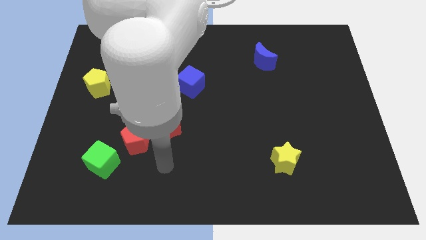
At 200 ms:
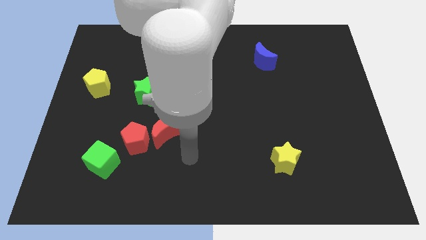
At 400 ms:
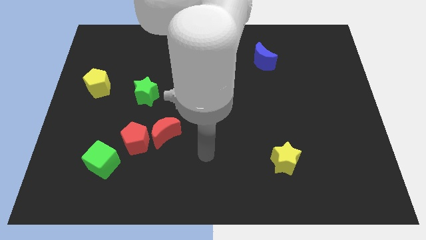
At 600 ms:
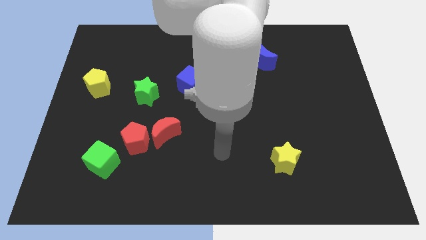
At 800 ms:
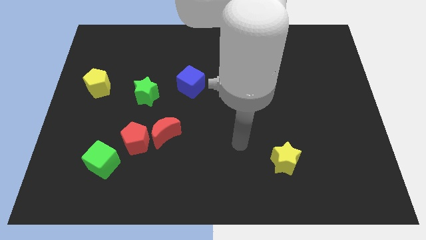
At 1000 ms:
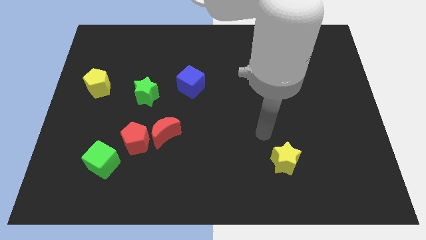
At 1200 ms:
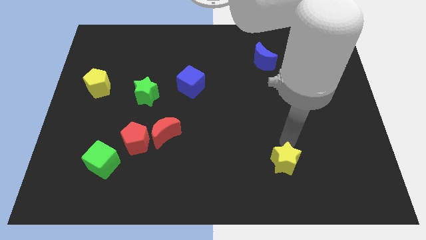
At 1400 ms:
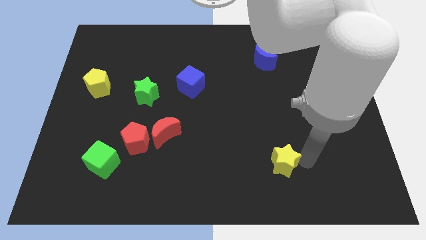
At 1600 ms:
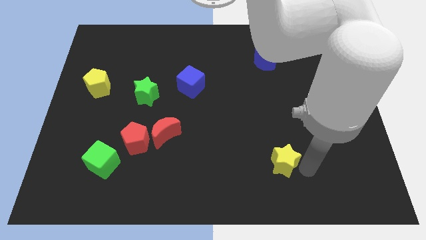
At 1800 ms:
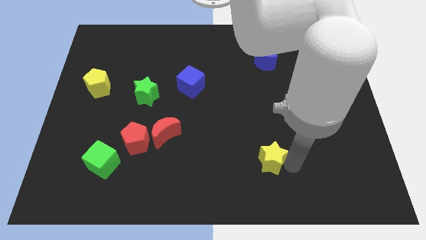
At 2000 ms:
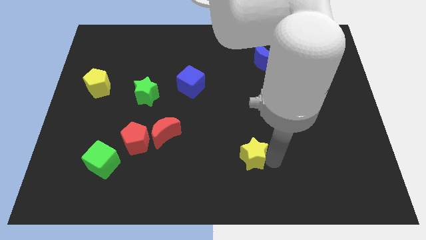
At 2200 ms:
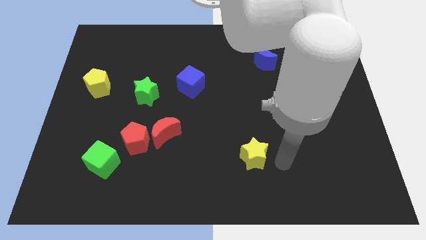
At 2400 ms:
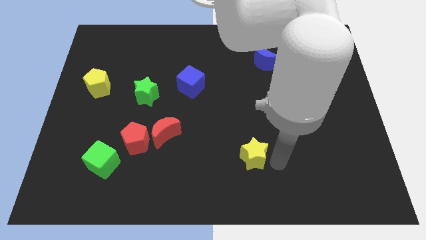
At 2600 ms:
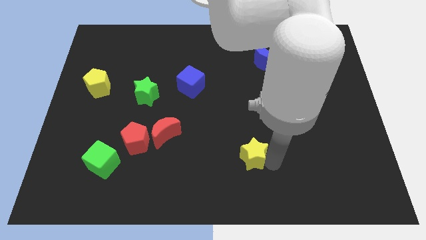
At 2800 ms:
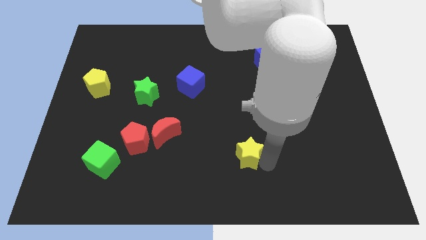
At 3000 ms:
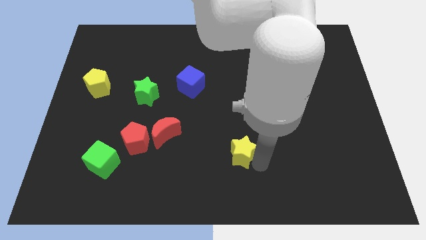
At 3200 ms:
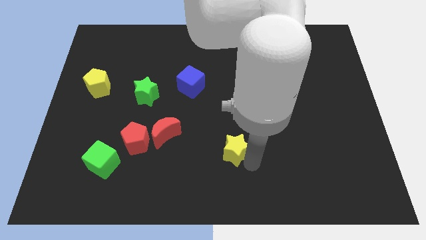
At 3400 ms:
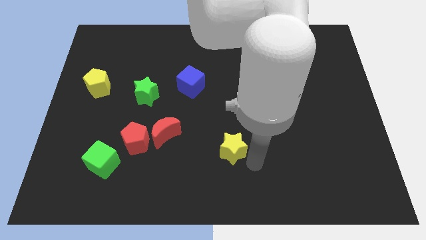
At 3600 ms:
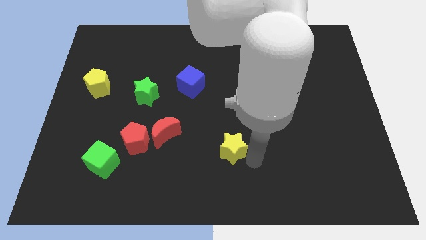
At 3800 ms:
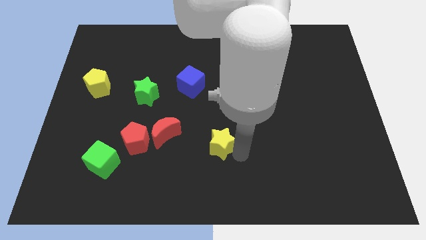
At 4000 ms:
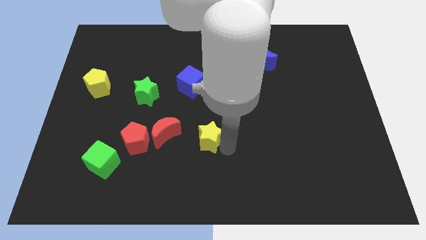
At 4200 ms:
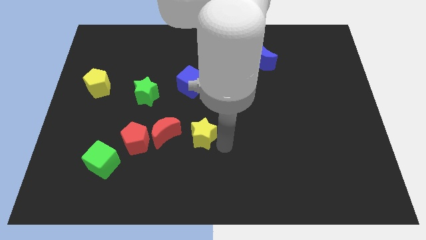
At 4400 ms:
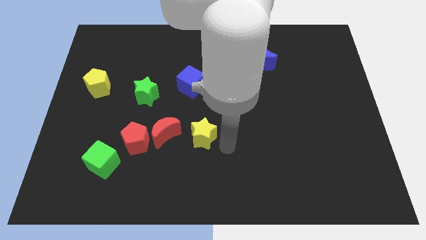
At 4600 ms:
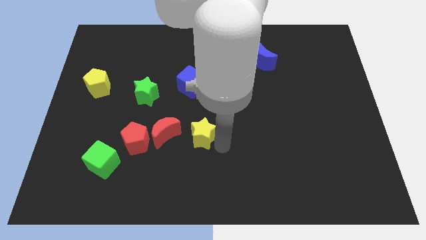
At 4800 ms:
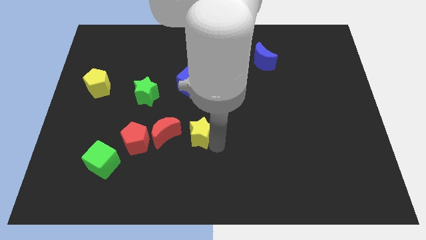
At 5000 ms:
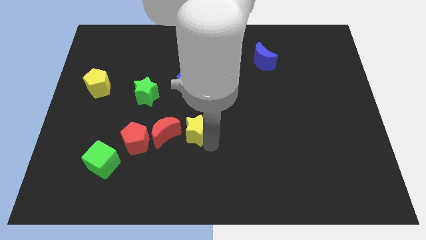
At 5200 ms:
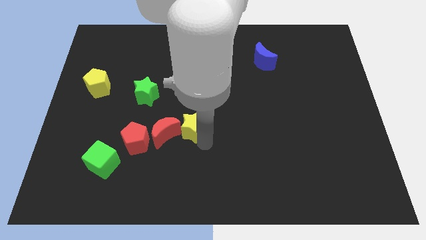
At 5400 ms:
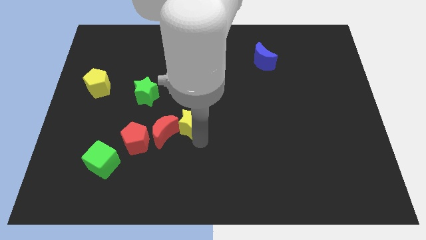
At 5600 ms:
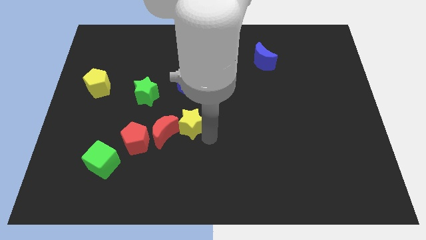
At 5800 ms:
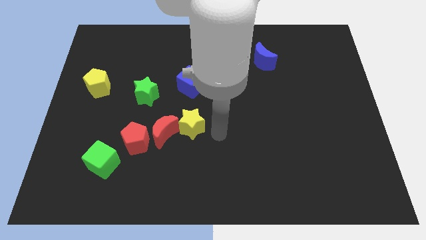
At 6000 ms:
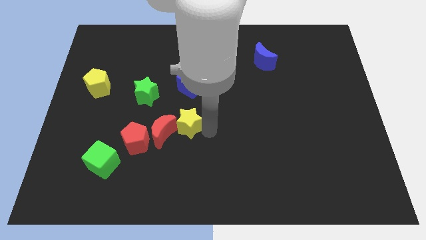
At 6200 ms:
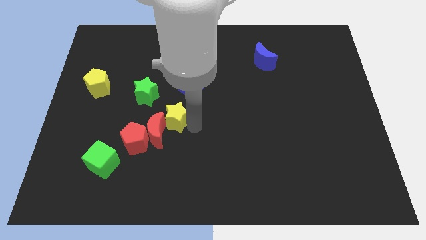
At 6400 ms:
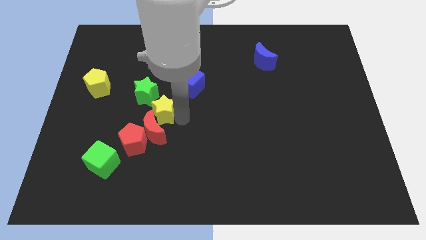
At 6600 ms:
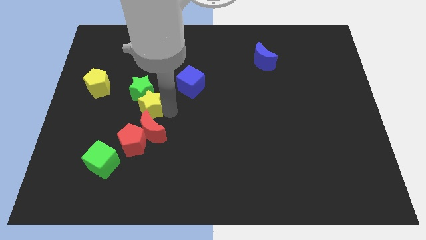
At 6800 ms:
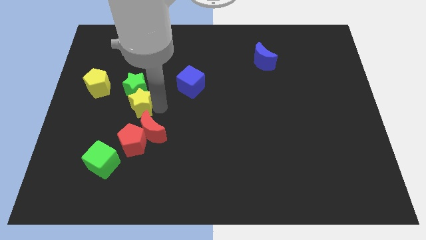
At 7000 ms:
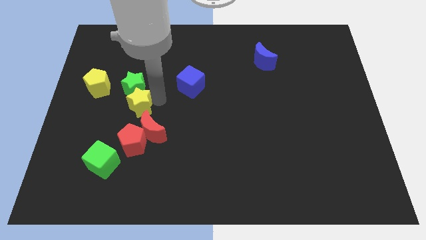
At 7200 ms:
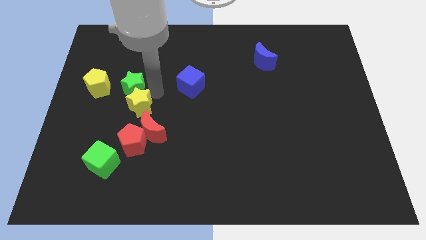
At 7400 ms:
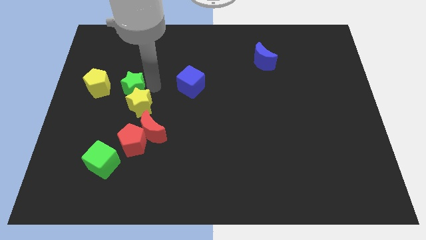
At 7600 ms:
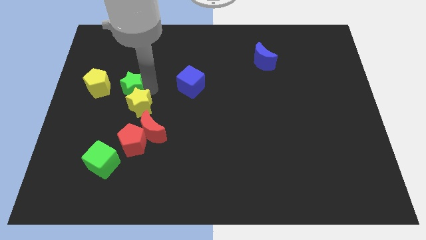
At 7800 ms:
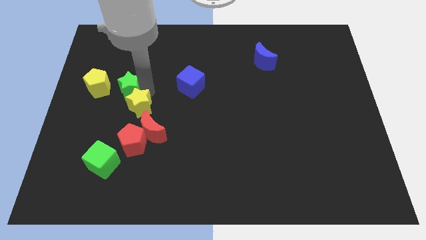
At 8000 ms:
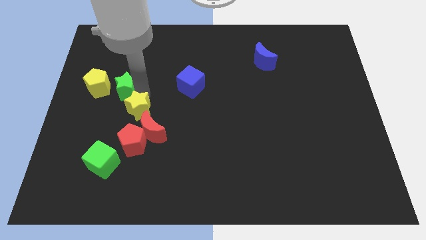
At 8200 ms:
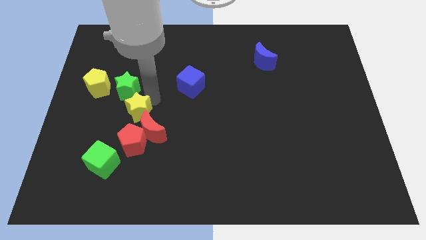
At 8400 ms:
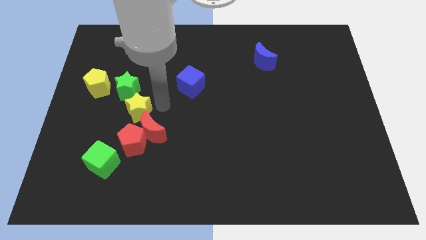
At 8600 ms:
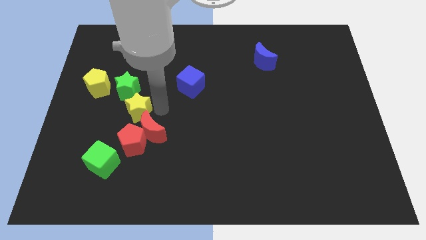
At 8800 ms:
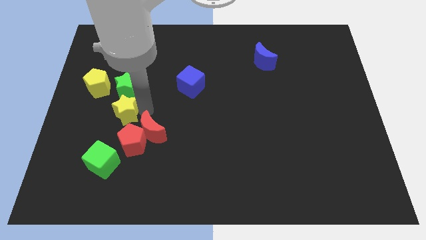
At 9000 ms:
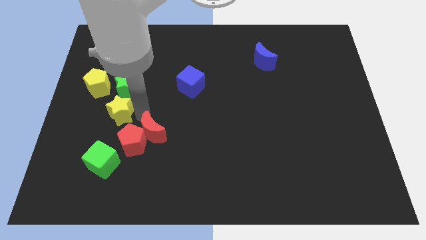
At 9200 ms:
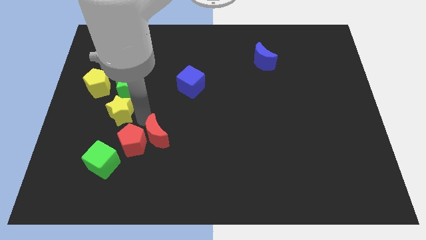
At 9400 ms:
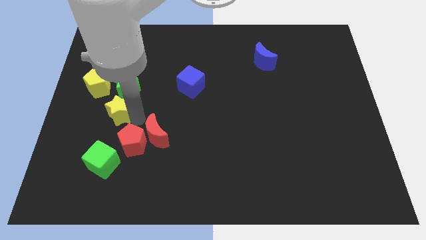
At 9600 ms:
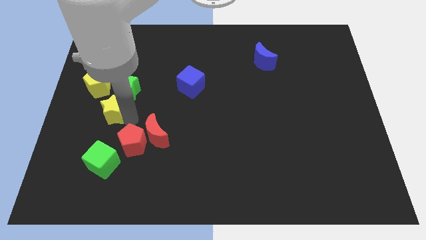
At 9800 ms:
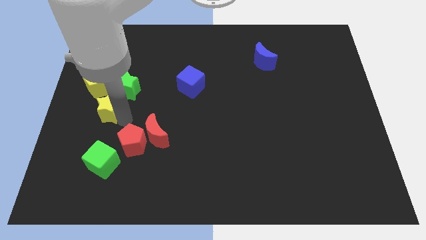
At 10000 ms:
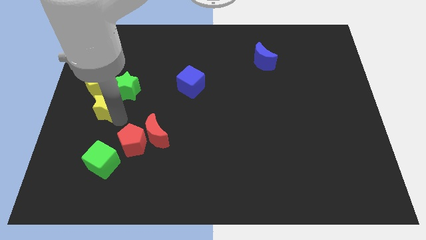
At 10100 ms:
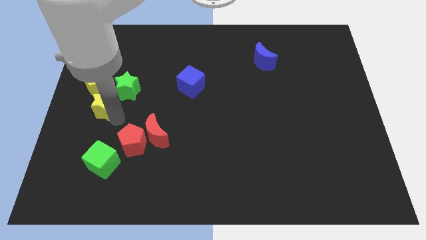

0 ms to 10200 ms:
push the yellow star to the left side of the board

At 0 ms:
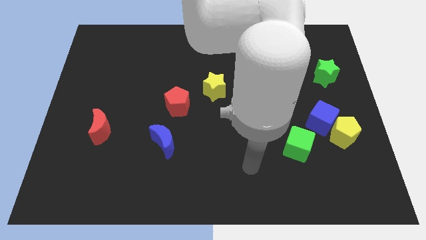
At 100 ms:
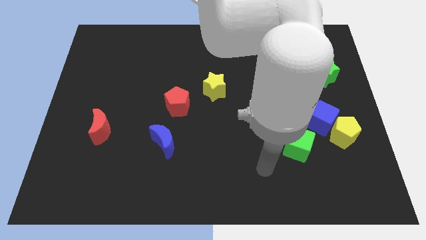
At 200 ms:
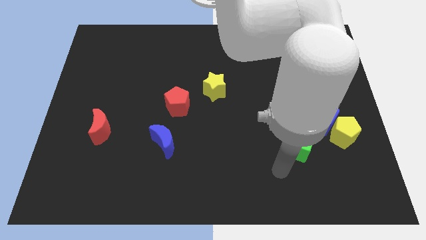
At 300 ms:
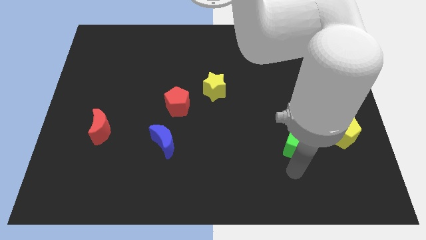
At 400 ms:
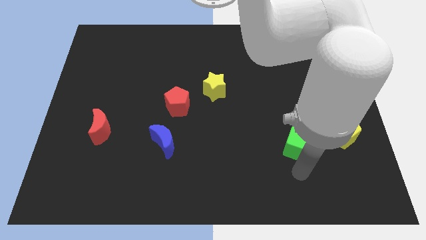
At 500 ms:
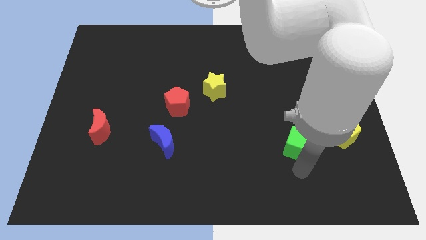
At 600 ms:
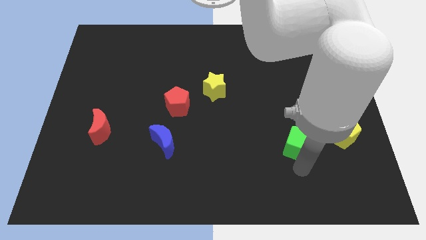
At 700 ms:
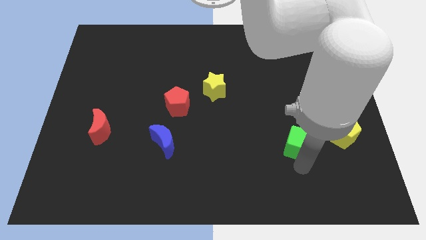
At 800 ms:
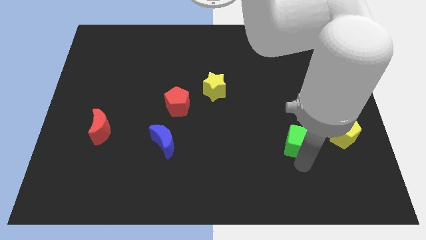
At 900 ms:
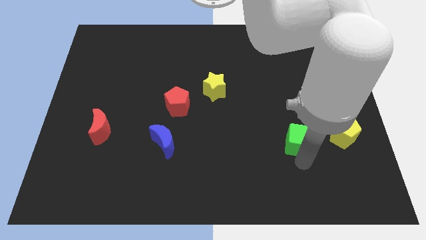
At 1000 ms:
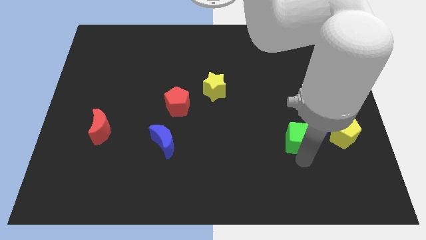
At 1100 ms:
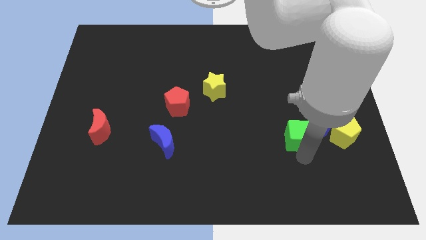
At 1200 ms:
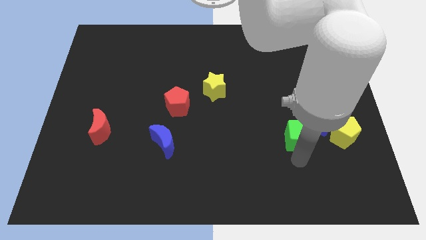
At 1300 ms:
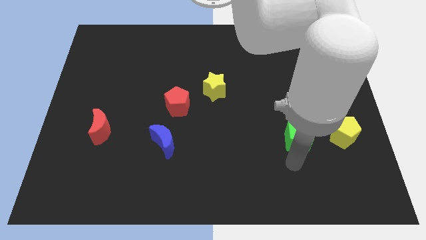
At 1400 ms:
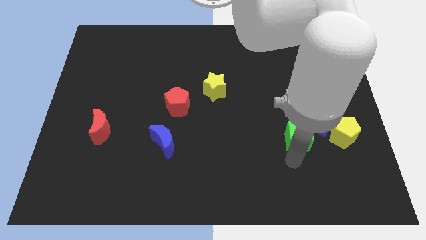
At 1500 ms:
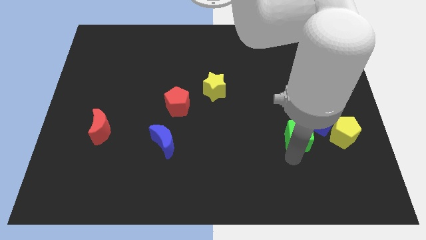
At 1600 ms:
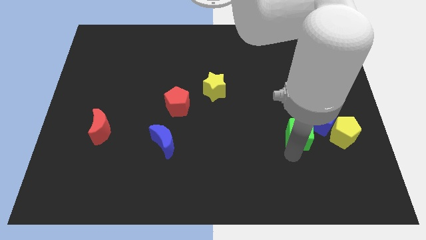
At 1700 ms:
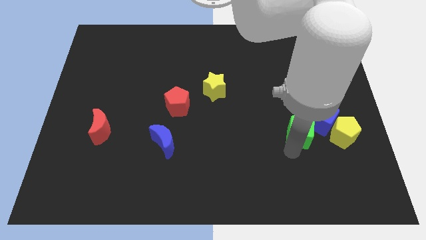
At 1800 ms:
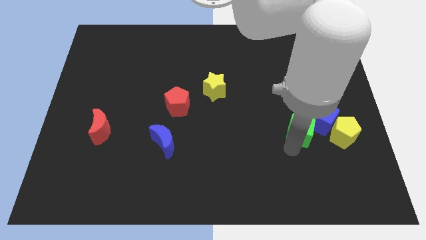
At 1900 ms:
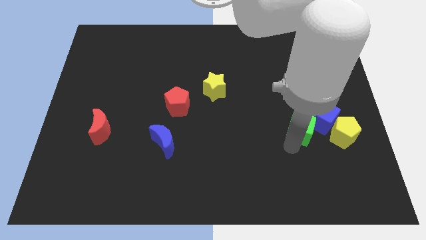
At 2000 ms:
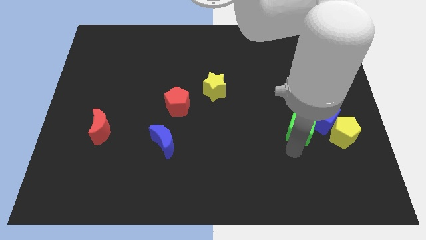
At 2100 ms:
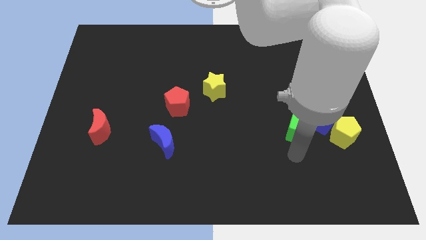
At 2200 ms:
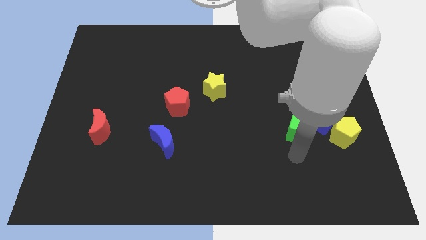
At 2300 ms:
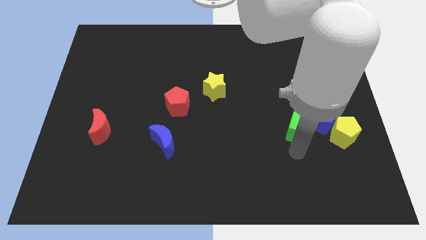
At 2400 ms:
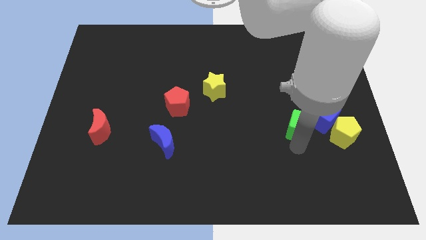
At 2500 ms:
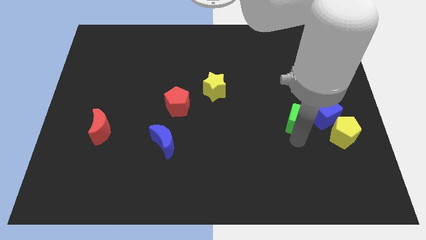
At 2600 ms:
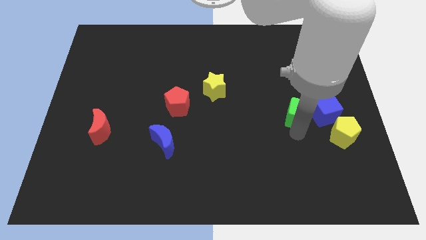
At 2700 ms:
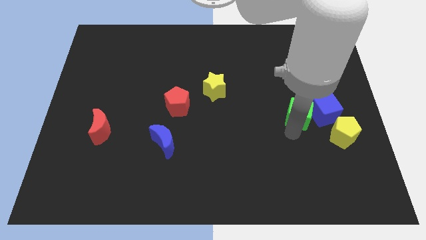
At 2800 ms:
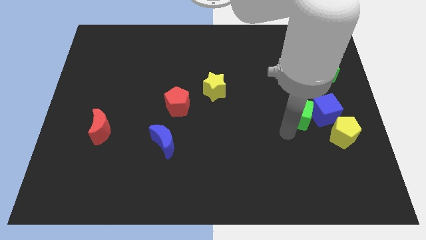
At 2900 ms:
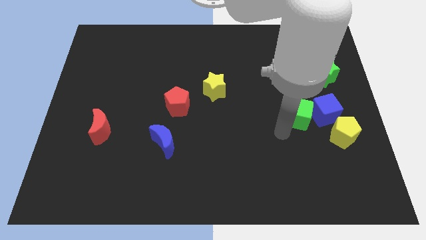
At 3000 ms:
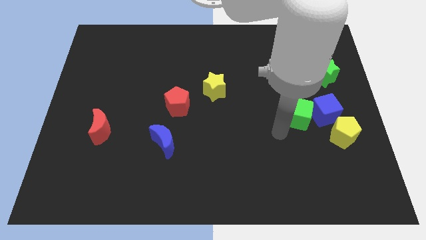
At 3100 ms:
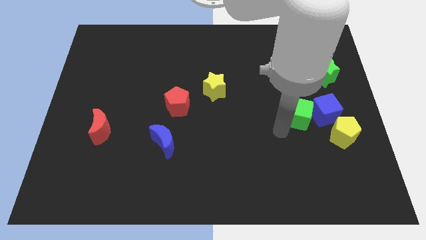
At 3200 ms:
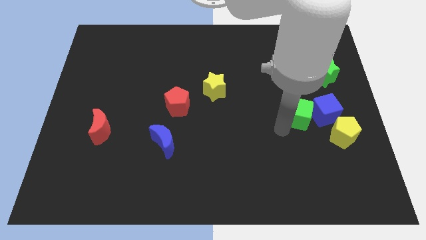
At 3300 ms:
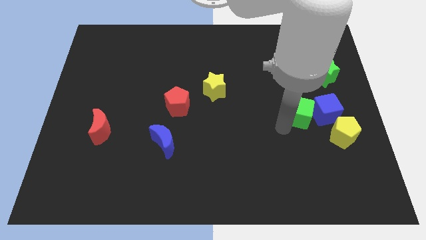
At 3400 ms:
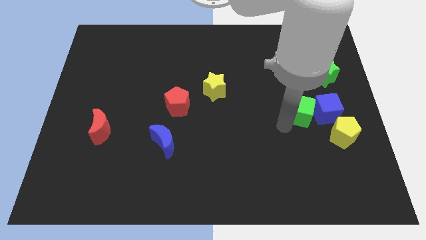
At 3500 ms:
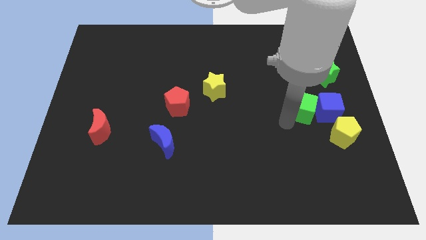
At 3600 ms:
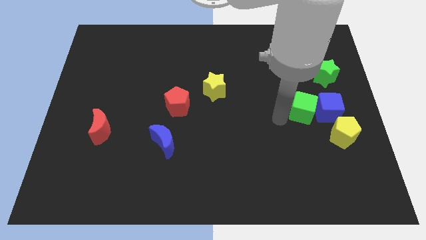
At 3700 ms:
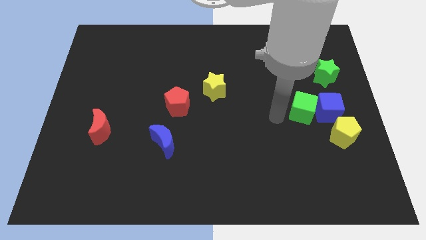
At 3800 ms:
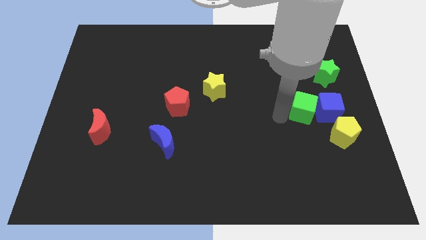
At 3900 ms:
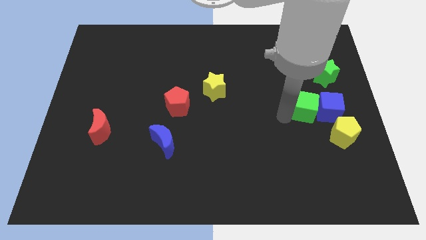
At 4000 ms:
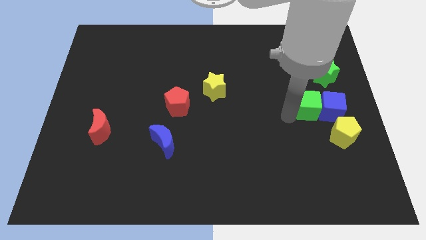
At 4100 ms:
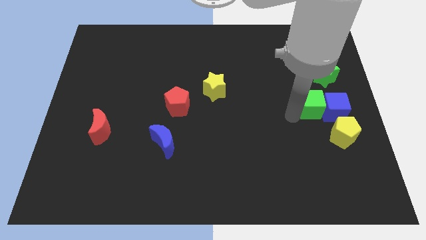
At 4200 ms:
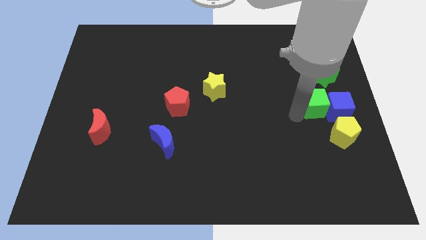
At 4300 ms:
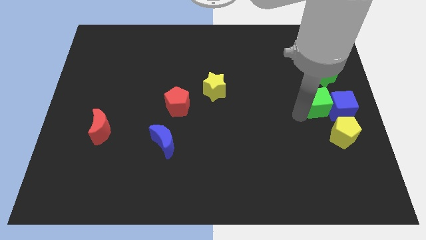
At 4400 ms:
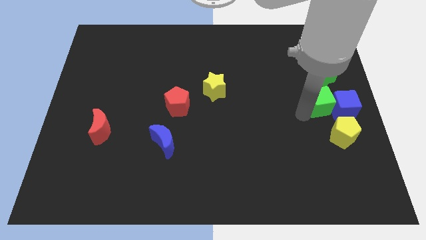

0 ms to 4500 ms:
push the green cube to the right side
